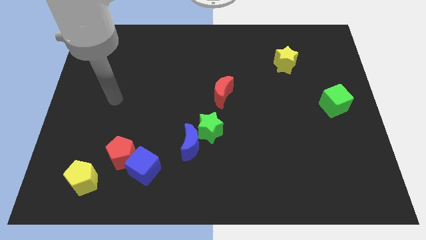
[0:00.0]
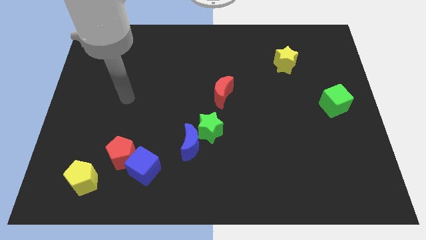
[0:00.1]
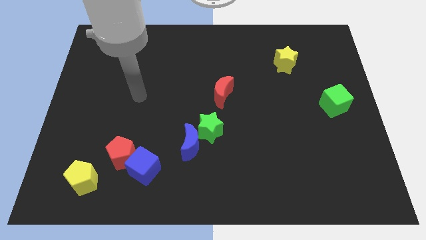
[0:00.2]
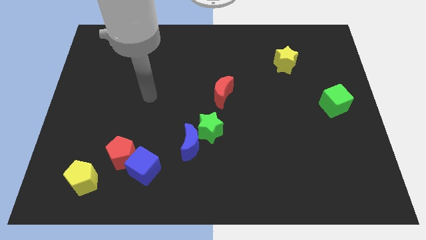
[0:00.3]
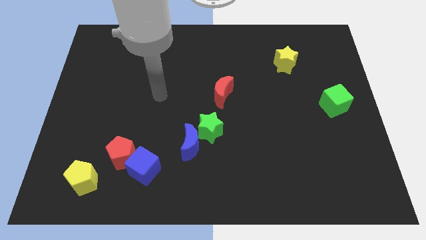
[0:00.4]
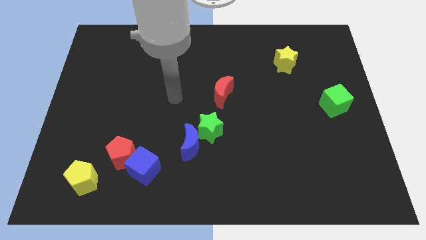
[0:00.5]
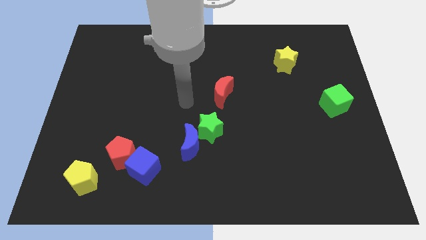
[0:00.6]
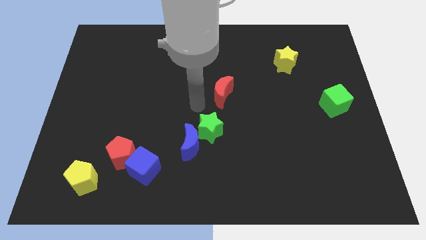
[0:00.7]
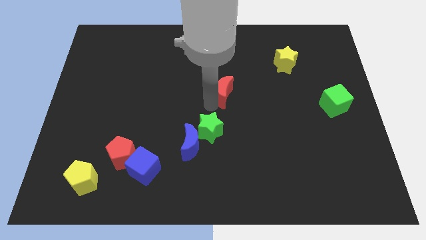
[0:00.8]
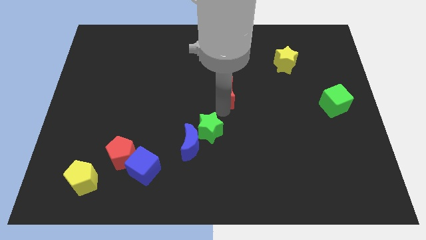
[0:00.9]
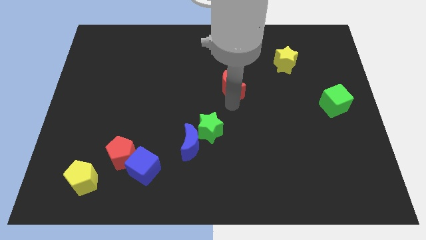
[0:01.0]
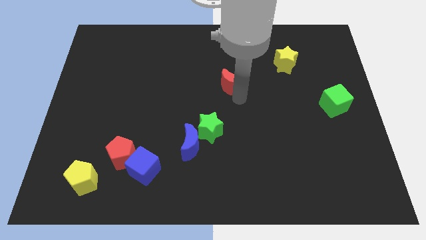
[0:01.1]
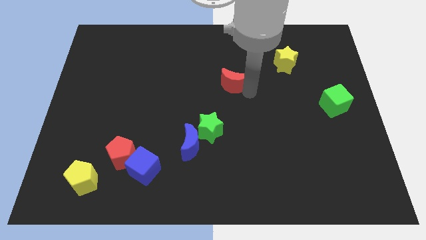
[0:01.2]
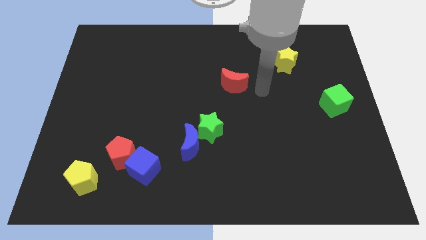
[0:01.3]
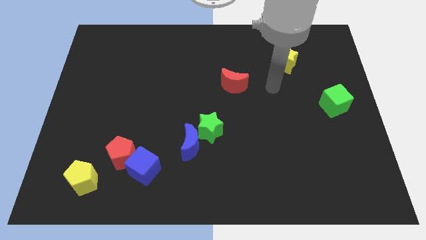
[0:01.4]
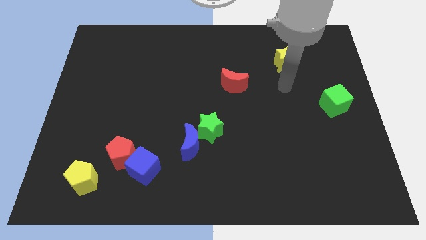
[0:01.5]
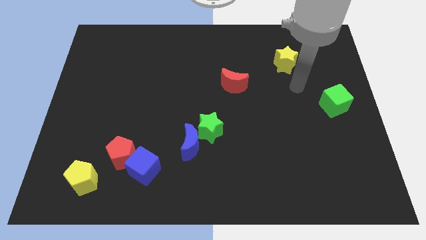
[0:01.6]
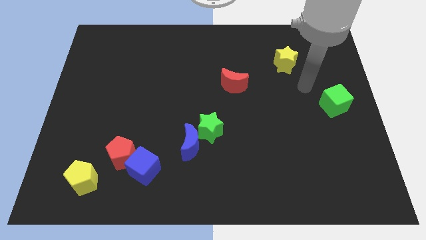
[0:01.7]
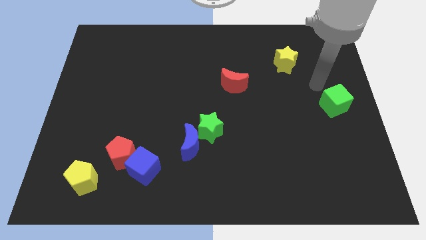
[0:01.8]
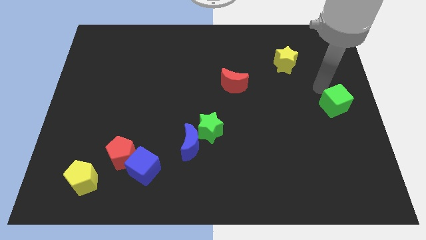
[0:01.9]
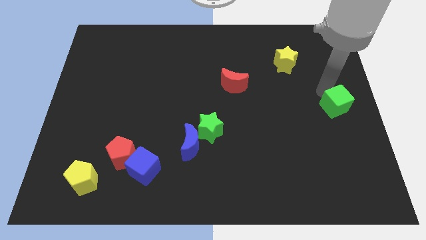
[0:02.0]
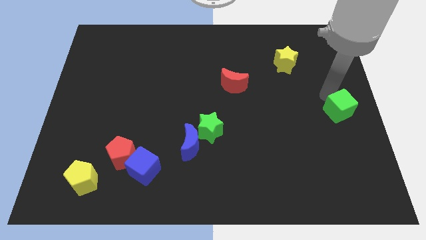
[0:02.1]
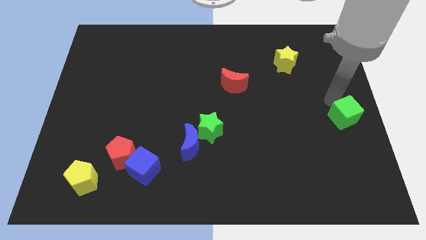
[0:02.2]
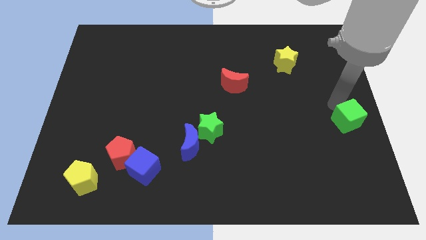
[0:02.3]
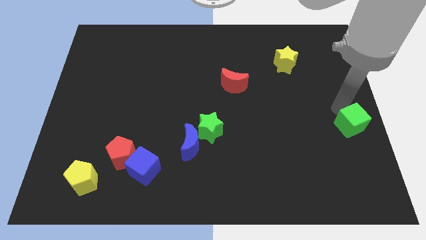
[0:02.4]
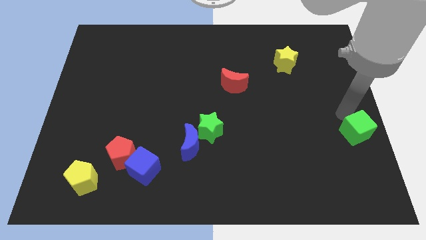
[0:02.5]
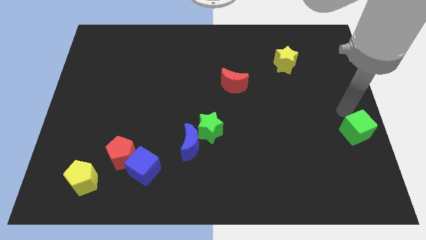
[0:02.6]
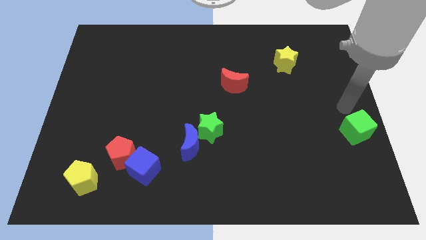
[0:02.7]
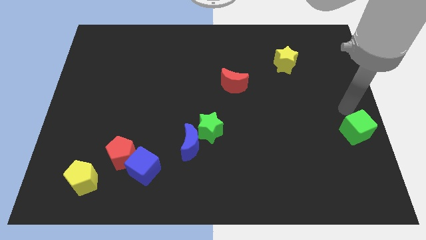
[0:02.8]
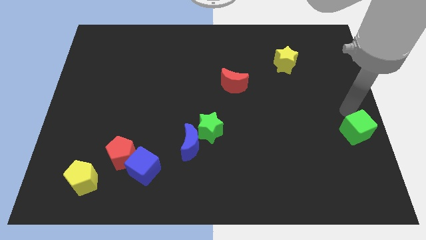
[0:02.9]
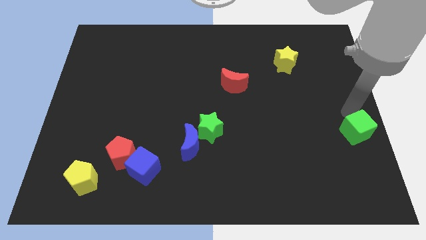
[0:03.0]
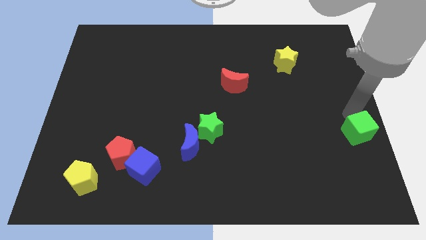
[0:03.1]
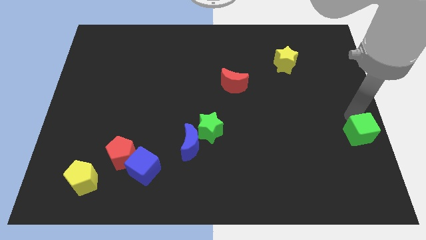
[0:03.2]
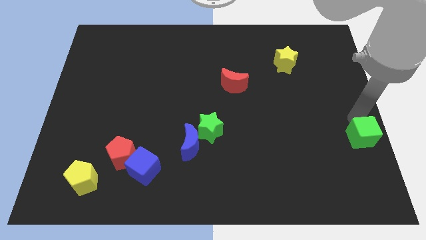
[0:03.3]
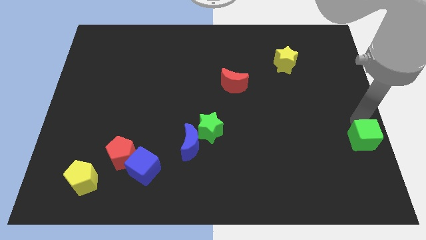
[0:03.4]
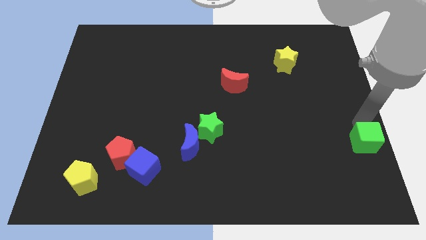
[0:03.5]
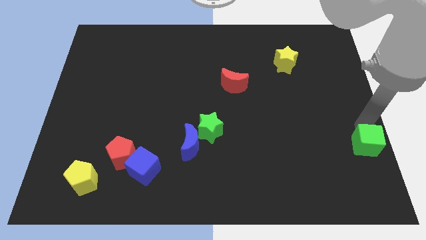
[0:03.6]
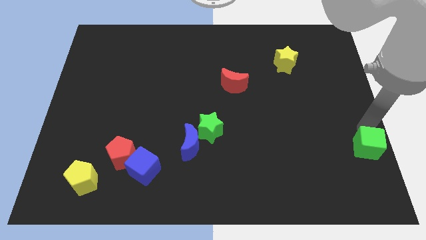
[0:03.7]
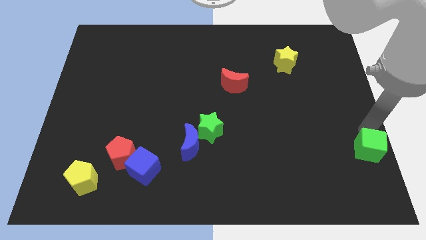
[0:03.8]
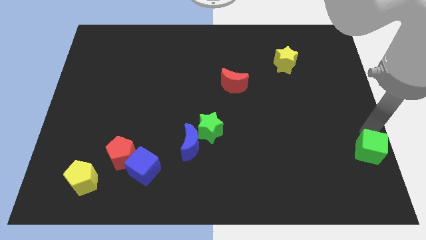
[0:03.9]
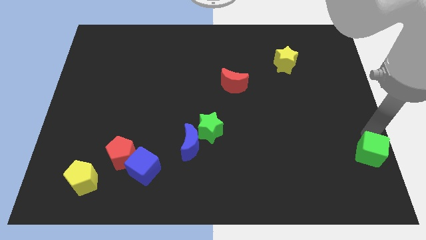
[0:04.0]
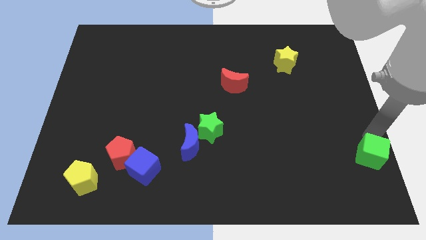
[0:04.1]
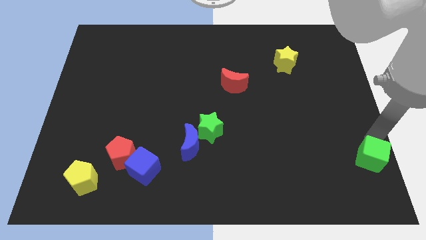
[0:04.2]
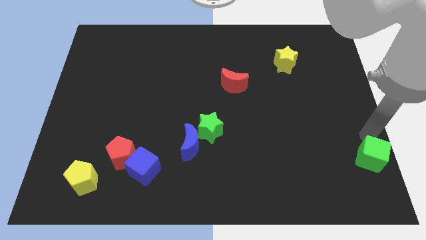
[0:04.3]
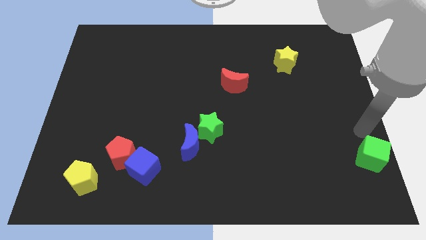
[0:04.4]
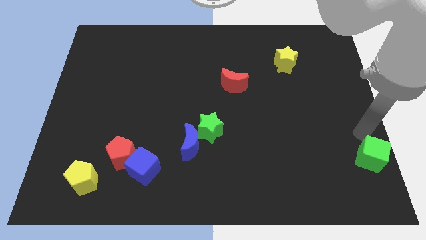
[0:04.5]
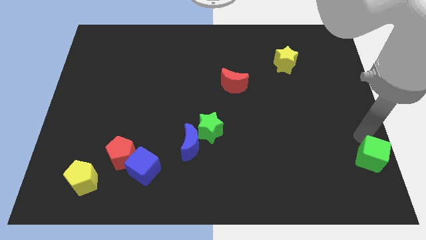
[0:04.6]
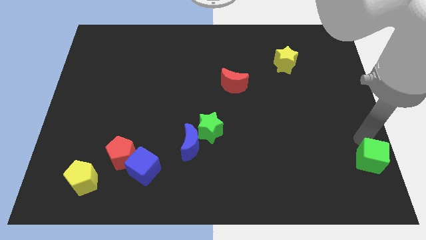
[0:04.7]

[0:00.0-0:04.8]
slide the green cube to the bottom right of the board

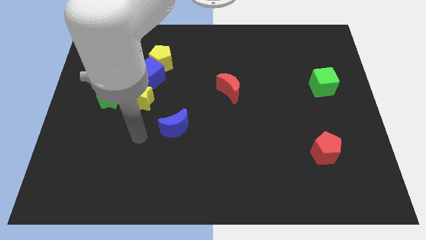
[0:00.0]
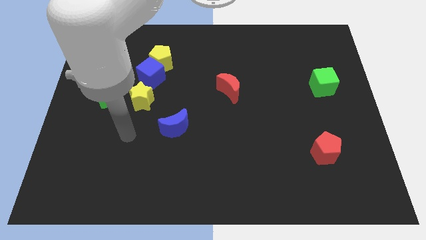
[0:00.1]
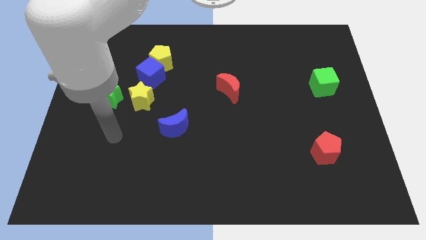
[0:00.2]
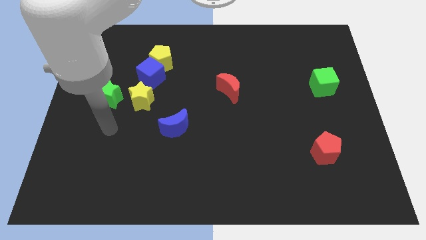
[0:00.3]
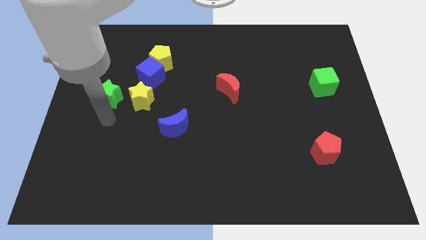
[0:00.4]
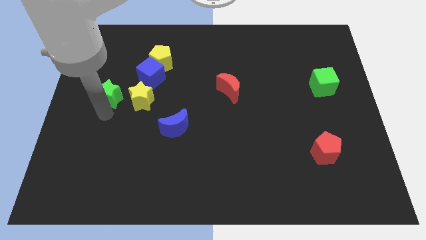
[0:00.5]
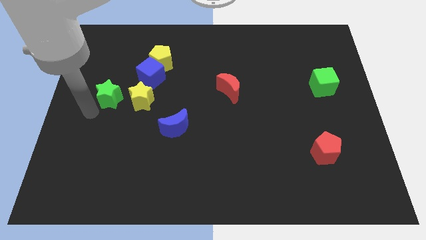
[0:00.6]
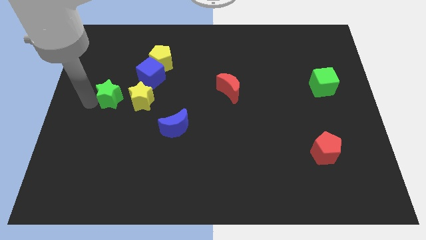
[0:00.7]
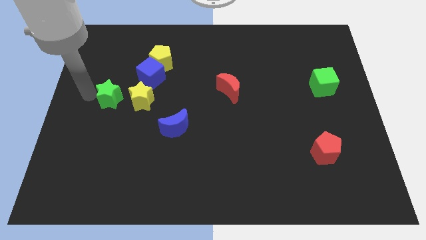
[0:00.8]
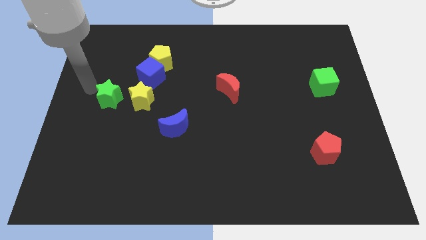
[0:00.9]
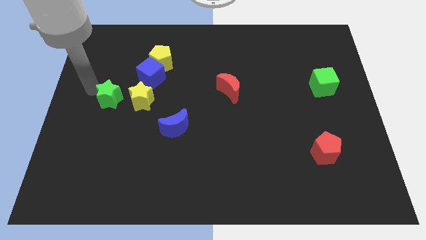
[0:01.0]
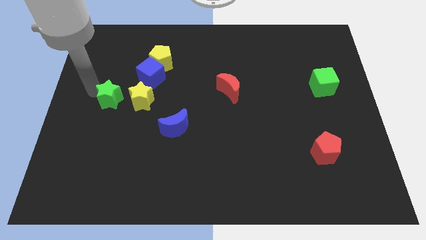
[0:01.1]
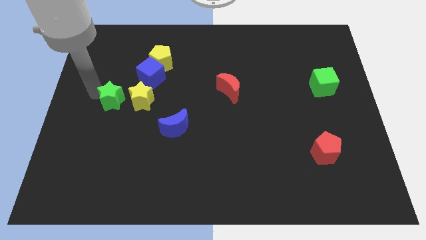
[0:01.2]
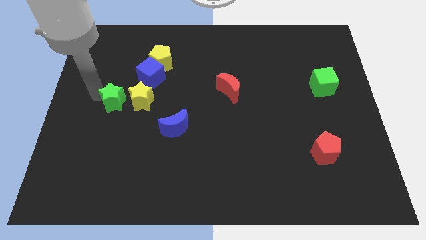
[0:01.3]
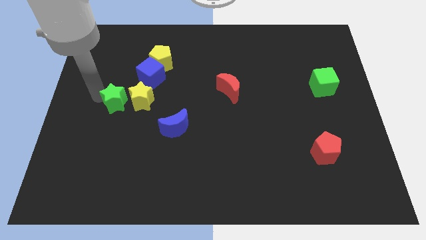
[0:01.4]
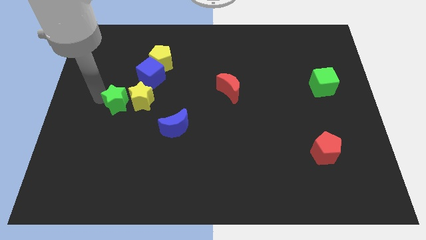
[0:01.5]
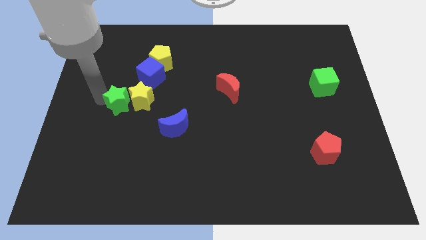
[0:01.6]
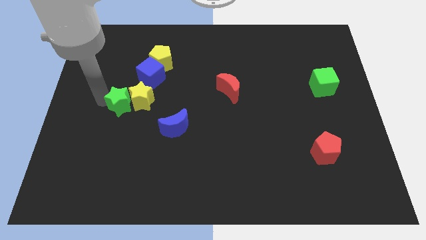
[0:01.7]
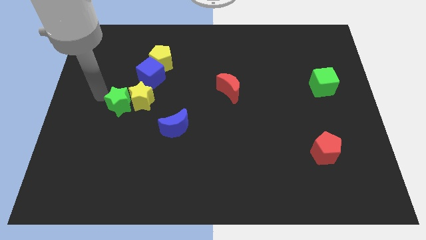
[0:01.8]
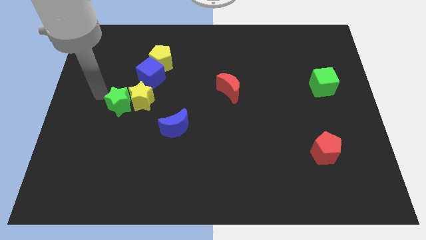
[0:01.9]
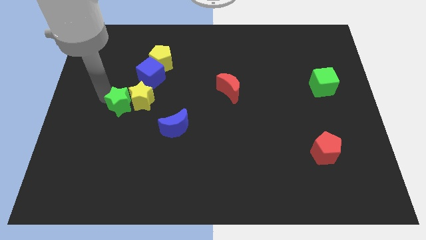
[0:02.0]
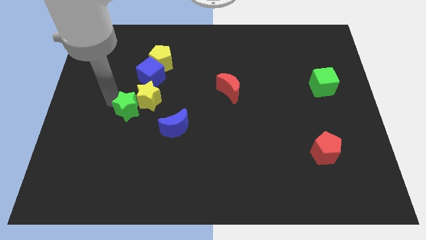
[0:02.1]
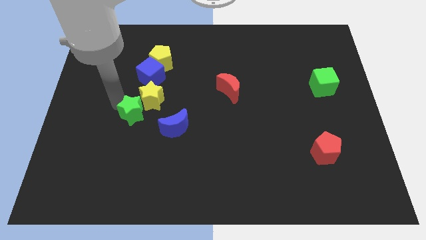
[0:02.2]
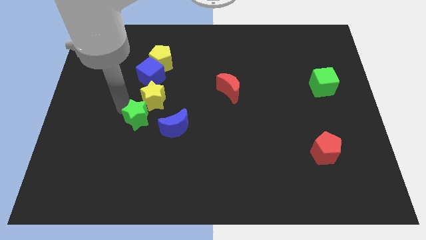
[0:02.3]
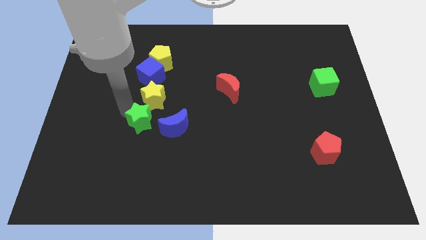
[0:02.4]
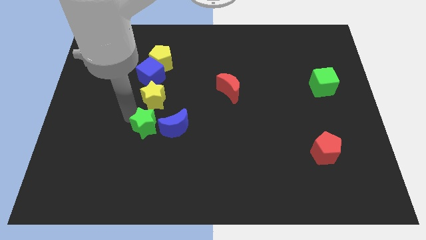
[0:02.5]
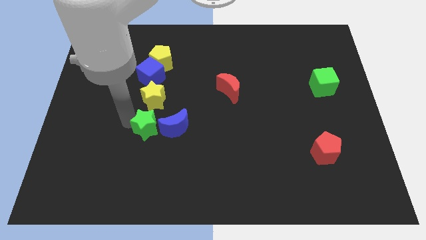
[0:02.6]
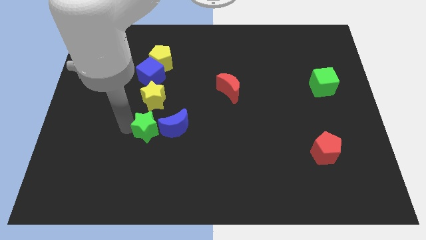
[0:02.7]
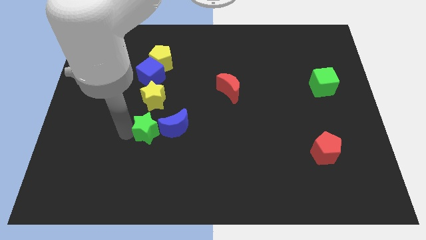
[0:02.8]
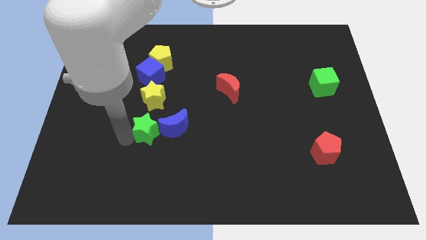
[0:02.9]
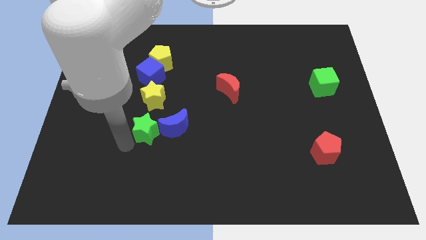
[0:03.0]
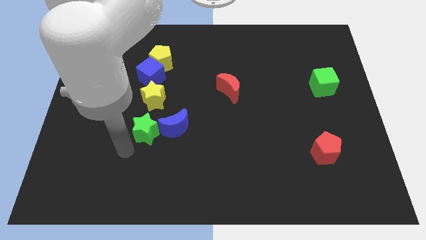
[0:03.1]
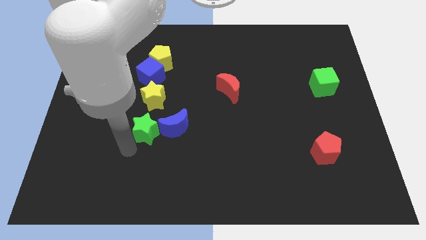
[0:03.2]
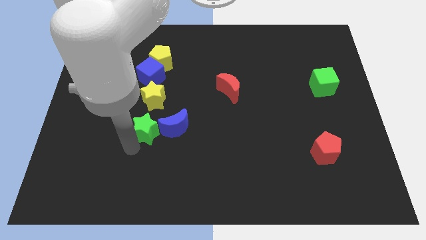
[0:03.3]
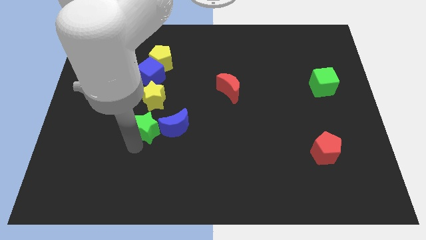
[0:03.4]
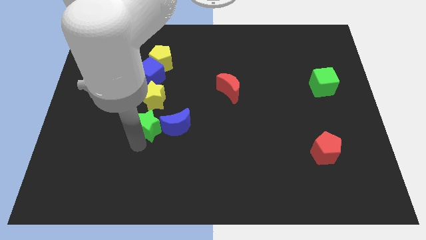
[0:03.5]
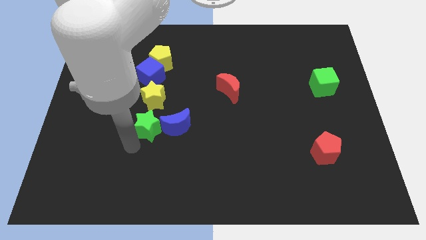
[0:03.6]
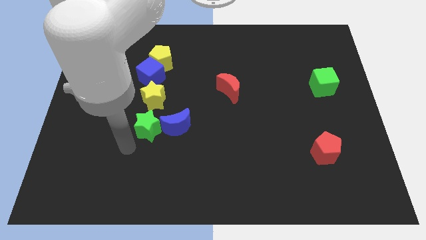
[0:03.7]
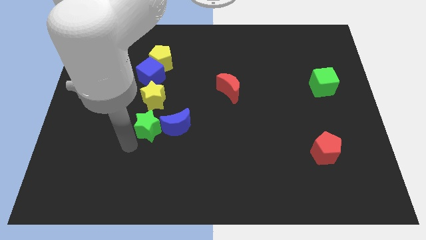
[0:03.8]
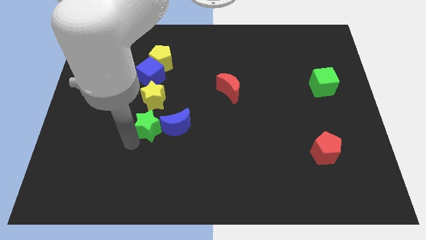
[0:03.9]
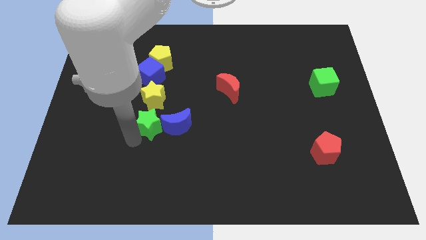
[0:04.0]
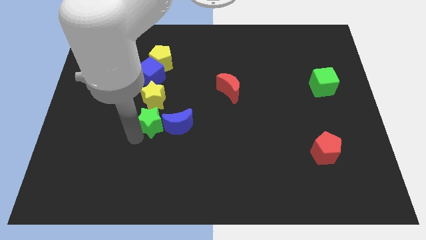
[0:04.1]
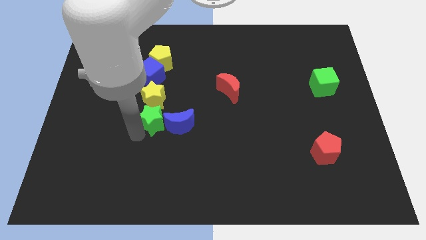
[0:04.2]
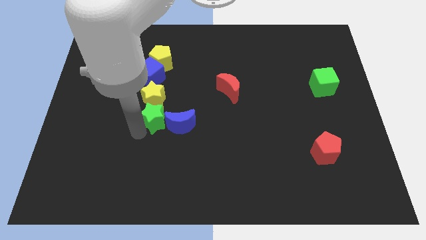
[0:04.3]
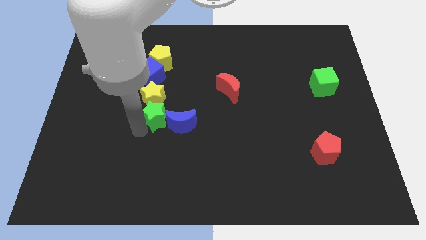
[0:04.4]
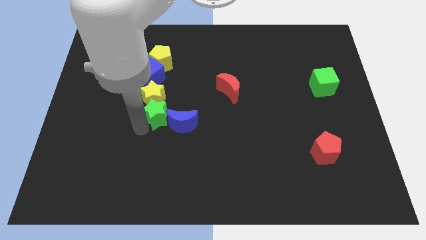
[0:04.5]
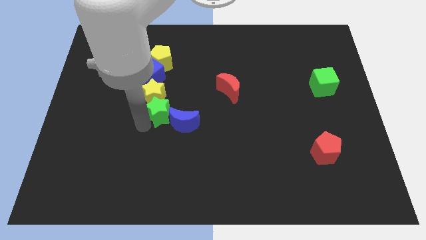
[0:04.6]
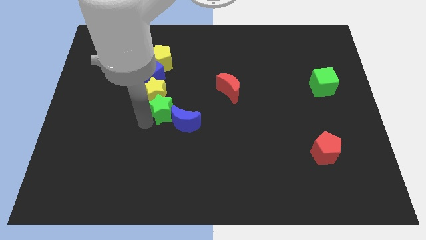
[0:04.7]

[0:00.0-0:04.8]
move the green star to the middle of the board
